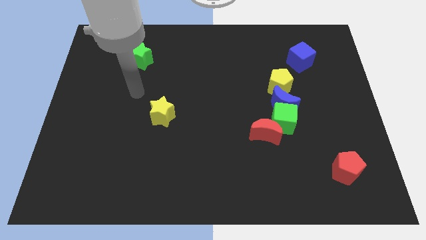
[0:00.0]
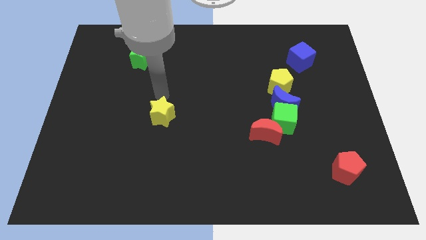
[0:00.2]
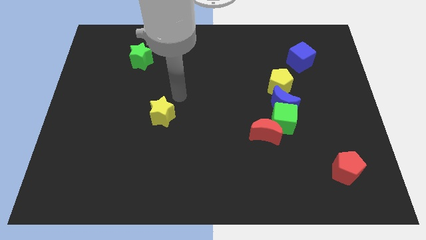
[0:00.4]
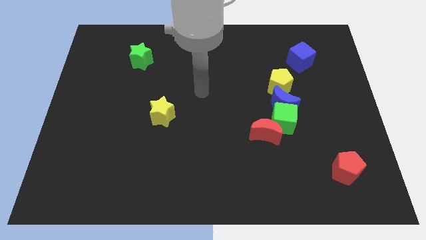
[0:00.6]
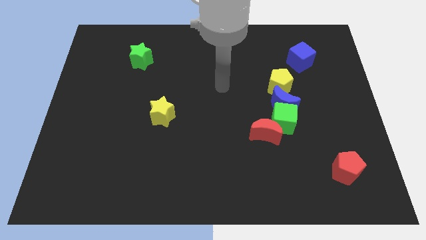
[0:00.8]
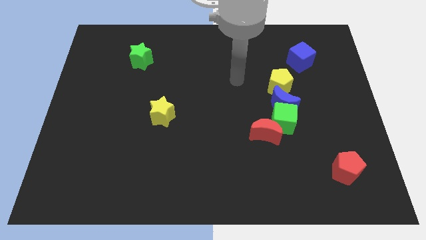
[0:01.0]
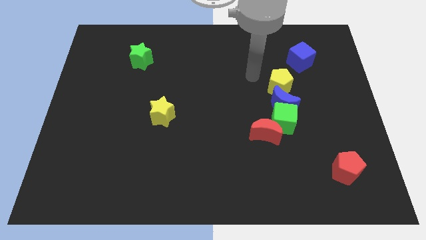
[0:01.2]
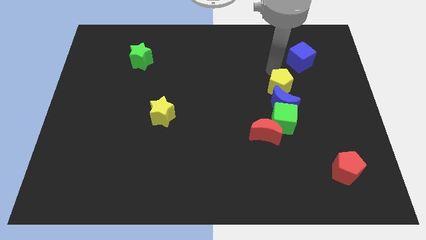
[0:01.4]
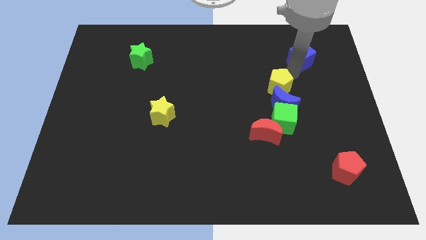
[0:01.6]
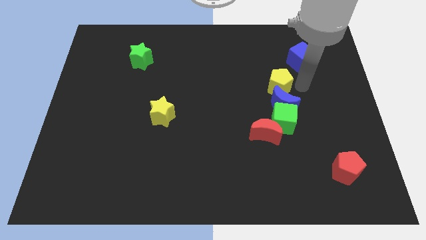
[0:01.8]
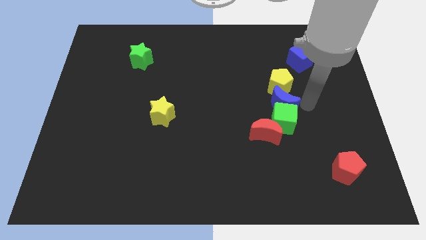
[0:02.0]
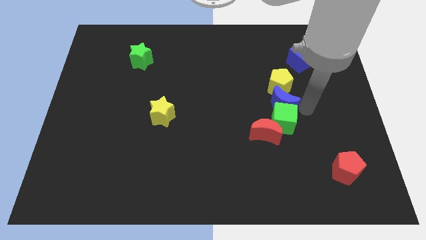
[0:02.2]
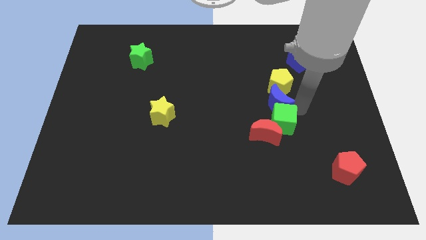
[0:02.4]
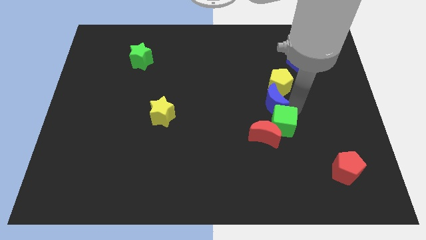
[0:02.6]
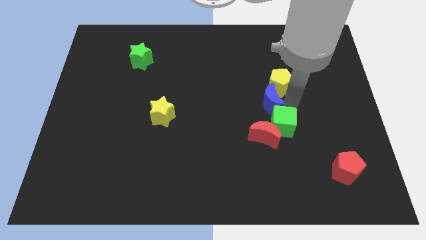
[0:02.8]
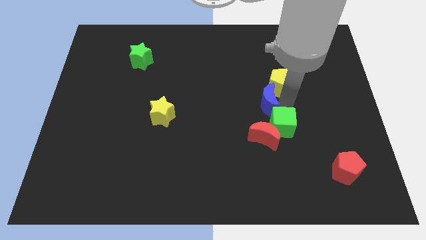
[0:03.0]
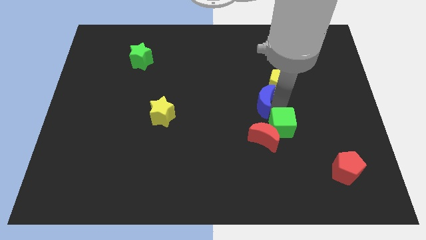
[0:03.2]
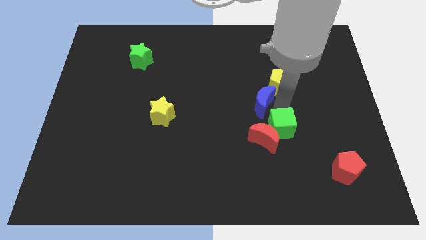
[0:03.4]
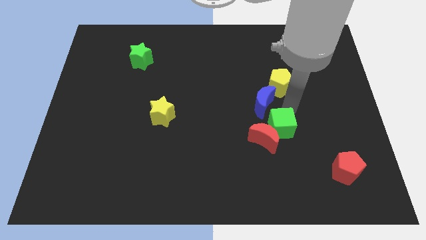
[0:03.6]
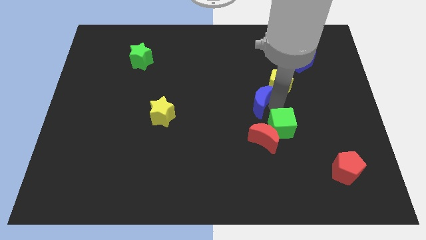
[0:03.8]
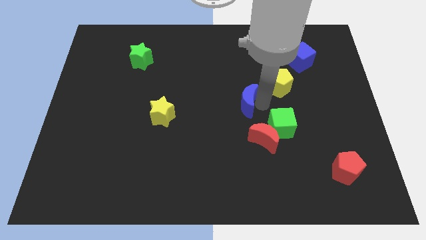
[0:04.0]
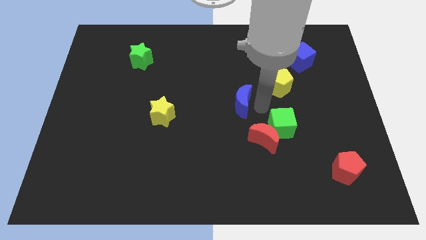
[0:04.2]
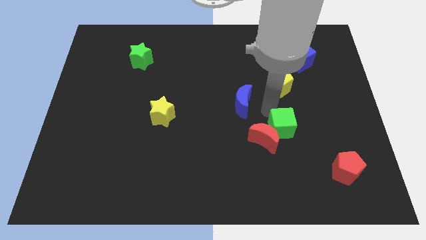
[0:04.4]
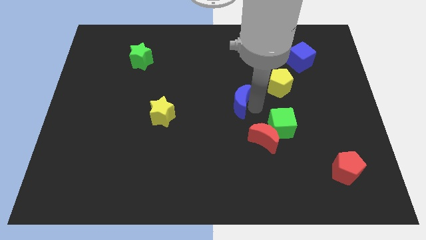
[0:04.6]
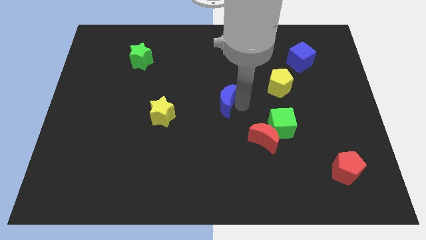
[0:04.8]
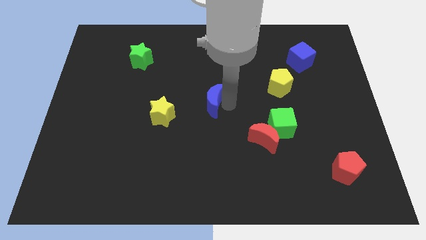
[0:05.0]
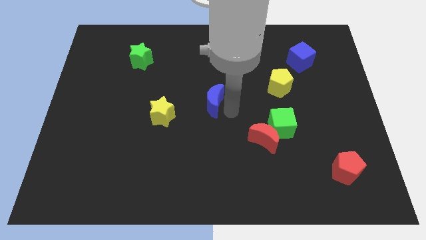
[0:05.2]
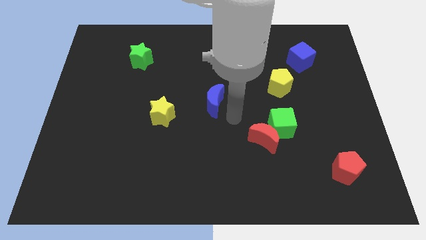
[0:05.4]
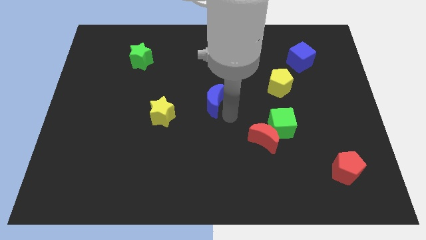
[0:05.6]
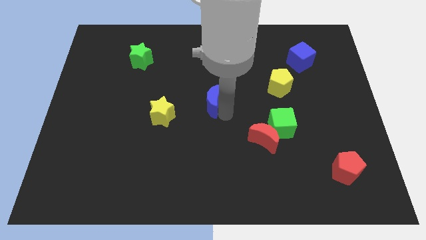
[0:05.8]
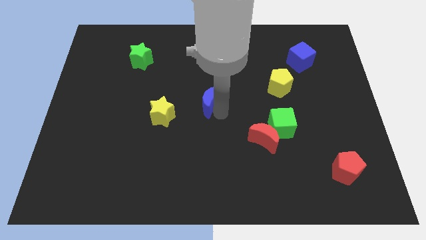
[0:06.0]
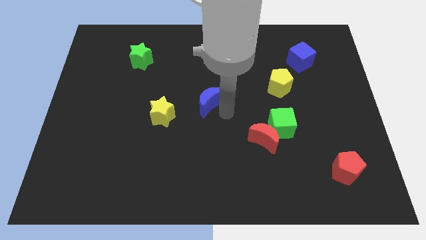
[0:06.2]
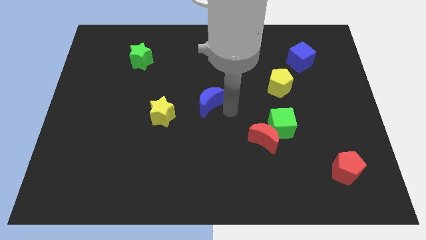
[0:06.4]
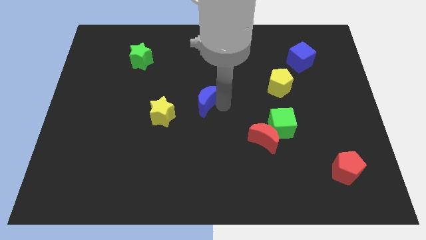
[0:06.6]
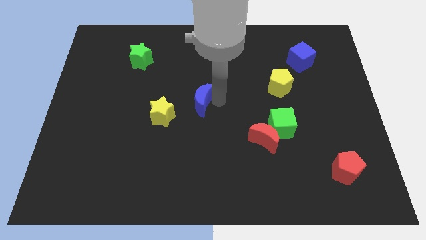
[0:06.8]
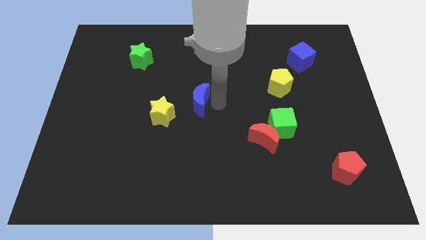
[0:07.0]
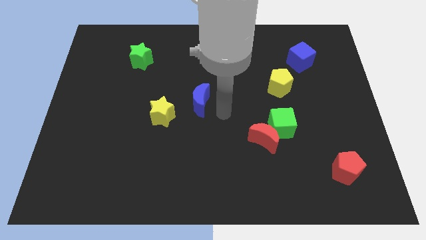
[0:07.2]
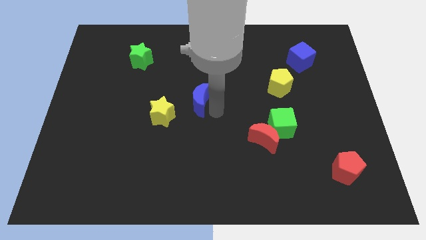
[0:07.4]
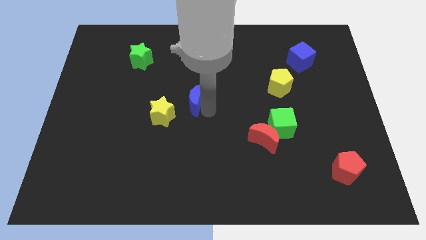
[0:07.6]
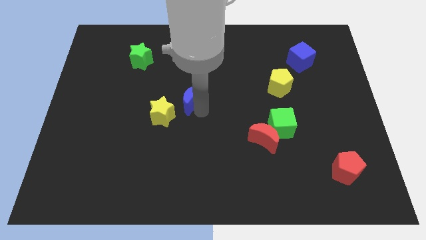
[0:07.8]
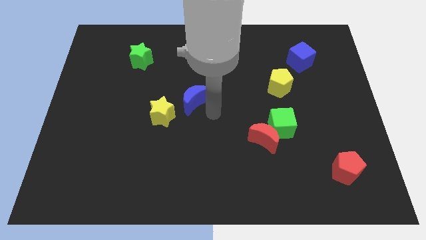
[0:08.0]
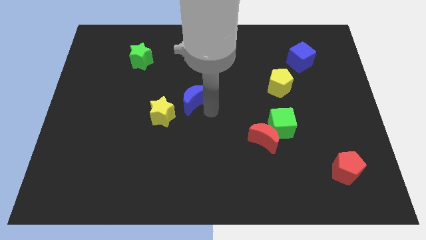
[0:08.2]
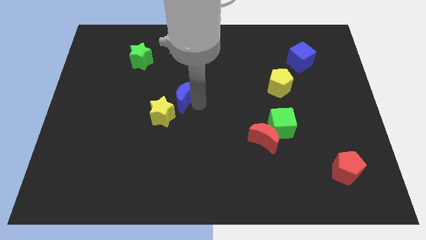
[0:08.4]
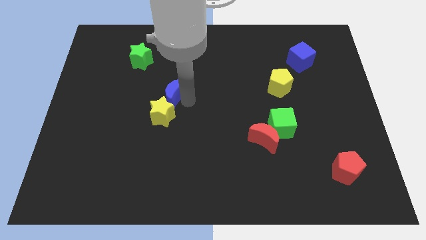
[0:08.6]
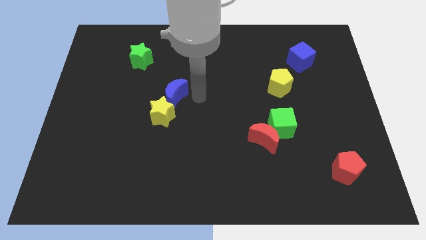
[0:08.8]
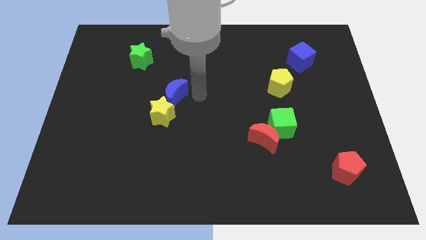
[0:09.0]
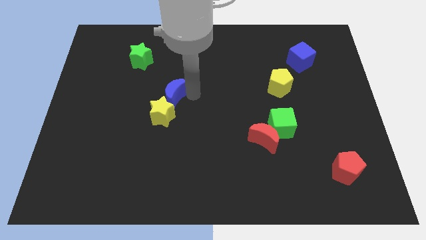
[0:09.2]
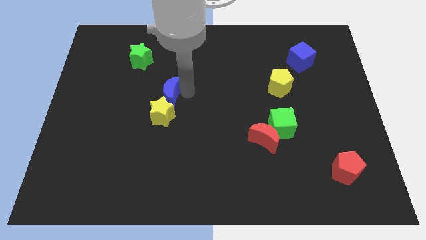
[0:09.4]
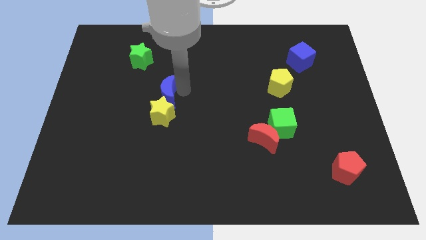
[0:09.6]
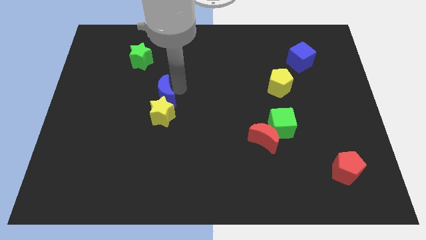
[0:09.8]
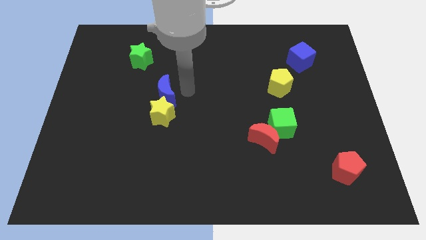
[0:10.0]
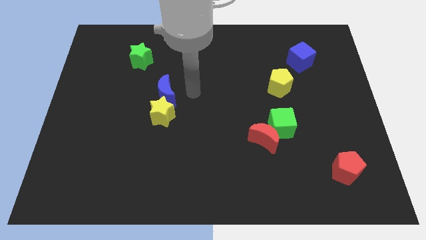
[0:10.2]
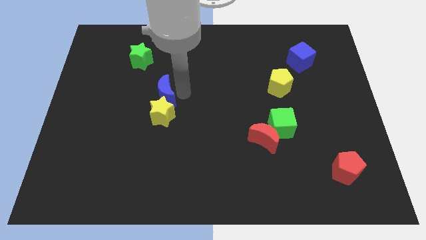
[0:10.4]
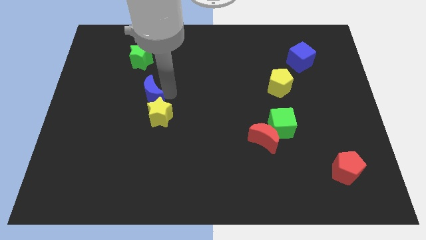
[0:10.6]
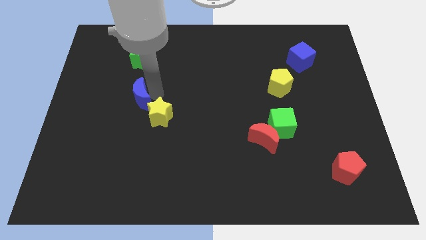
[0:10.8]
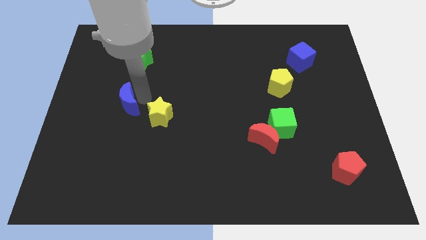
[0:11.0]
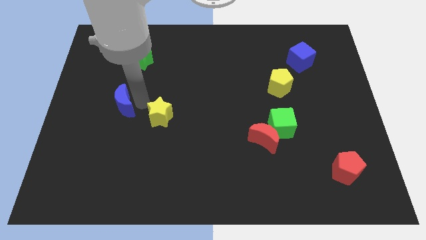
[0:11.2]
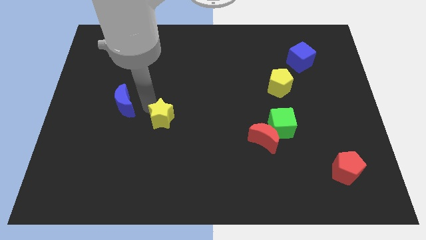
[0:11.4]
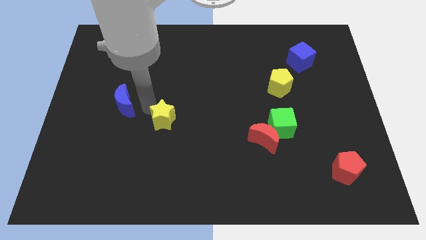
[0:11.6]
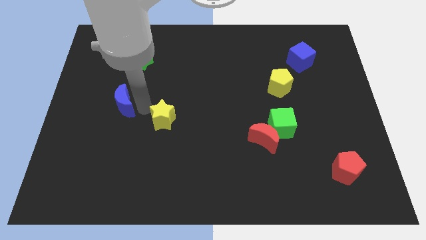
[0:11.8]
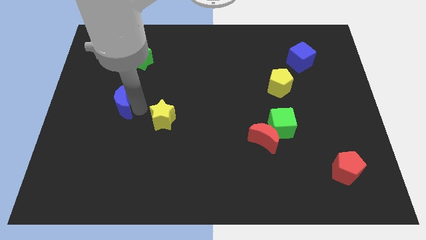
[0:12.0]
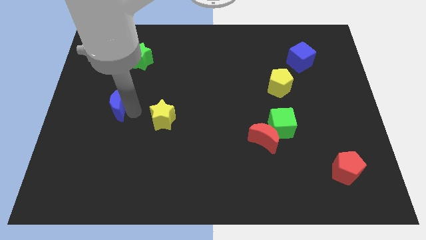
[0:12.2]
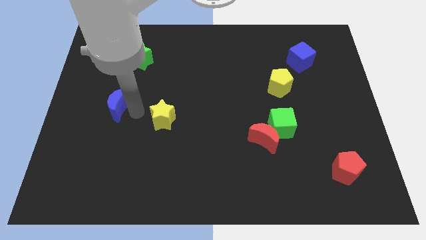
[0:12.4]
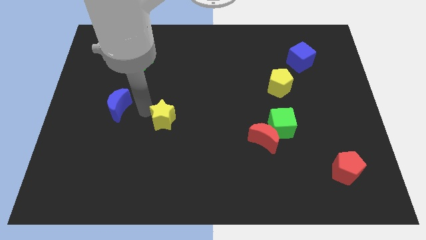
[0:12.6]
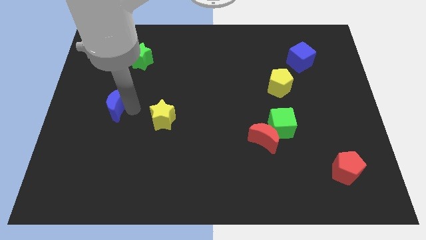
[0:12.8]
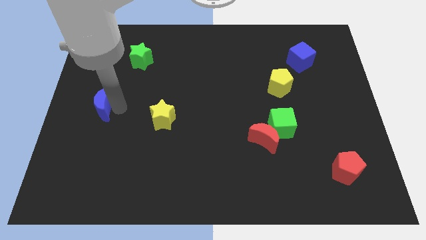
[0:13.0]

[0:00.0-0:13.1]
put the blue moon to the center left
